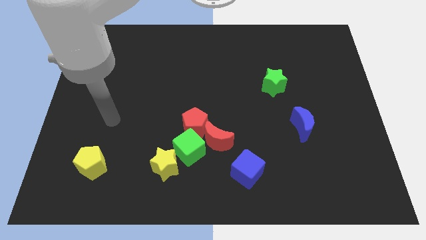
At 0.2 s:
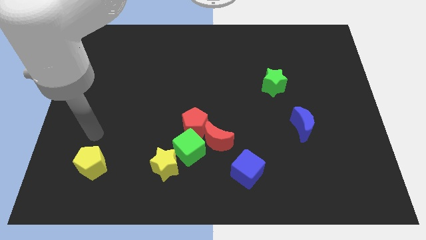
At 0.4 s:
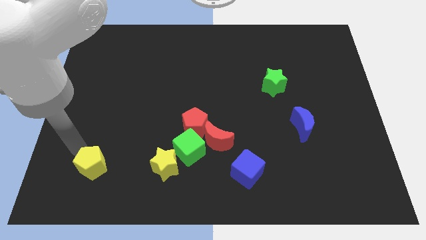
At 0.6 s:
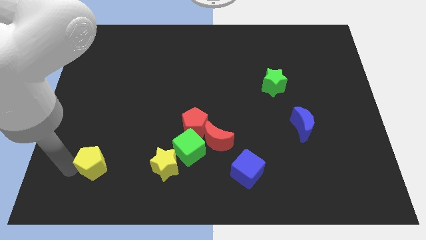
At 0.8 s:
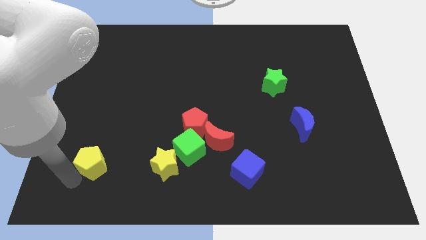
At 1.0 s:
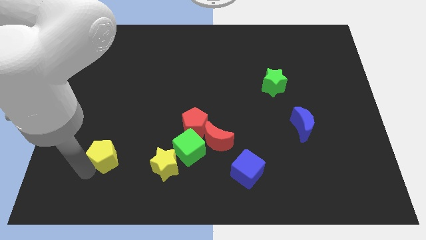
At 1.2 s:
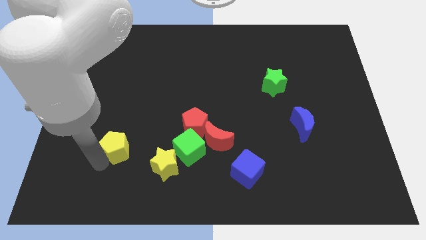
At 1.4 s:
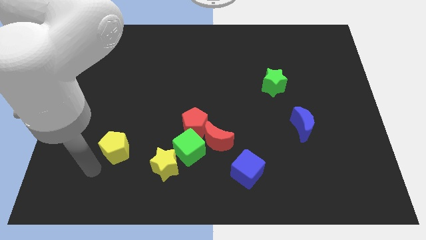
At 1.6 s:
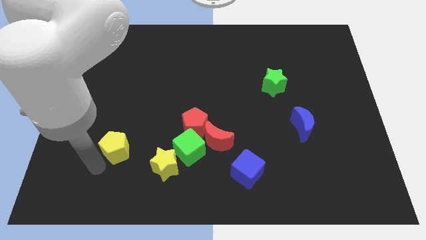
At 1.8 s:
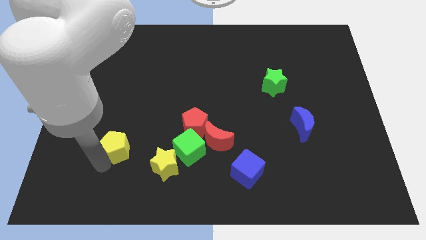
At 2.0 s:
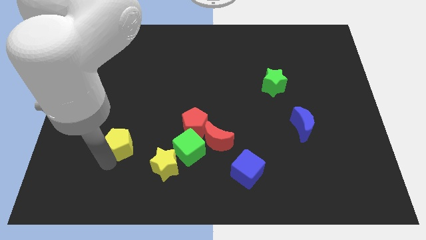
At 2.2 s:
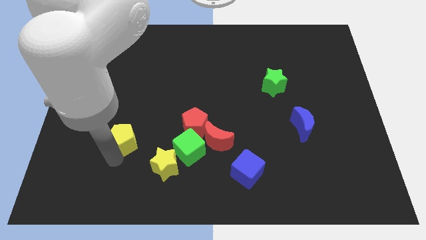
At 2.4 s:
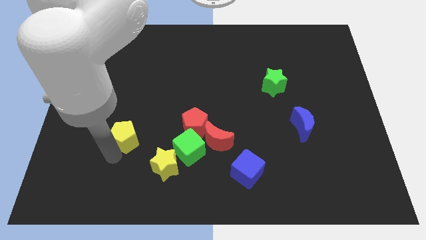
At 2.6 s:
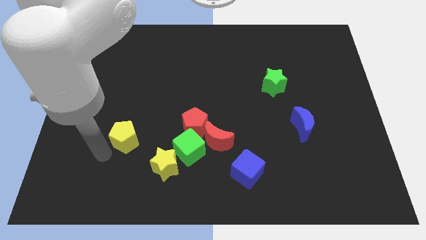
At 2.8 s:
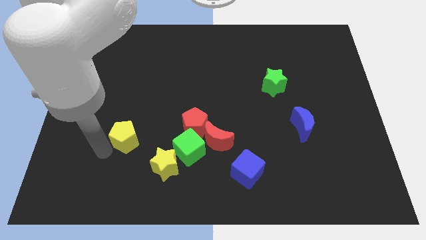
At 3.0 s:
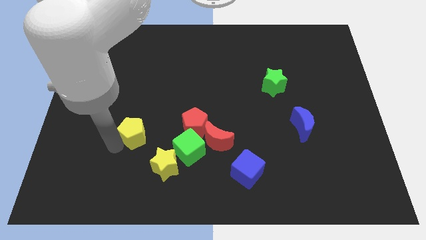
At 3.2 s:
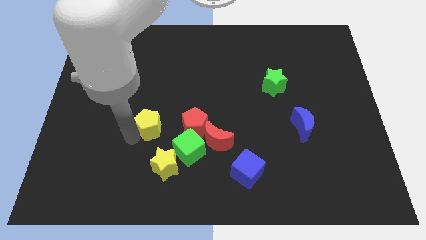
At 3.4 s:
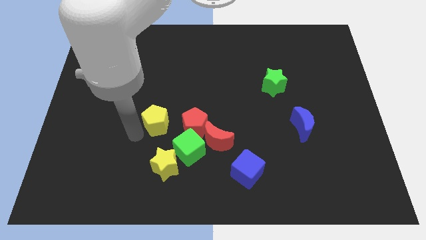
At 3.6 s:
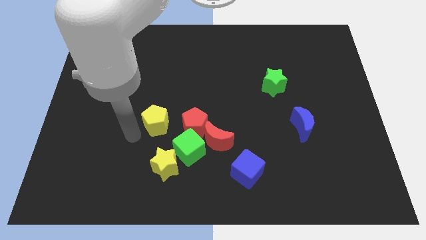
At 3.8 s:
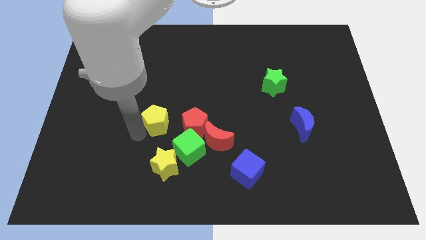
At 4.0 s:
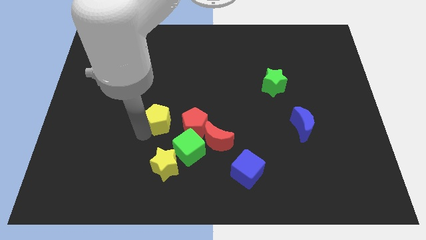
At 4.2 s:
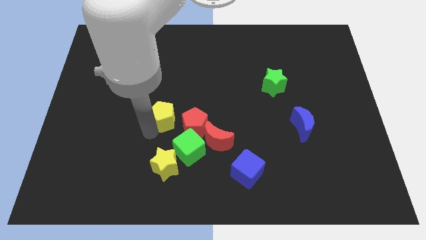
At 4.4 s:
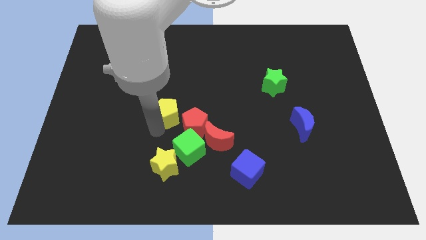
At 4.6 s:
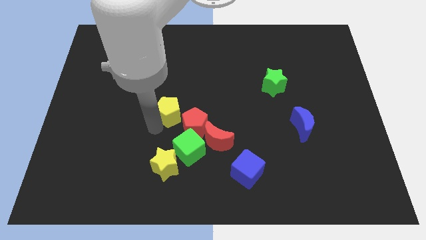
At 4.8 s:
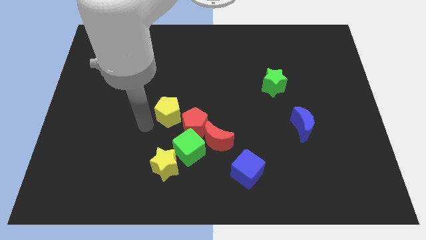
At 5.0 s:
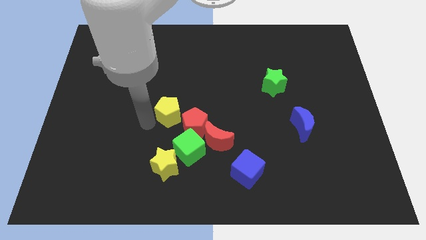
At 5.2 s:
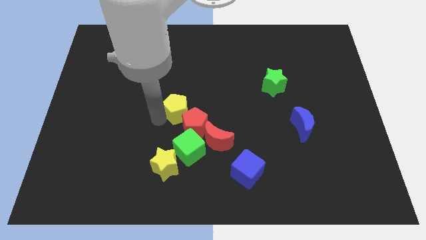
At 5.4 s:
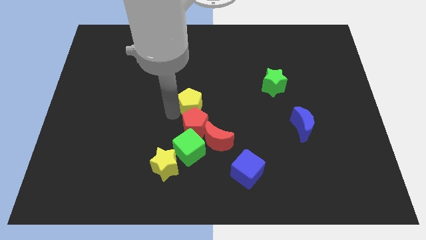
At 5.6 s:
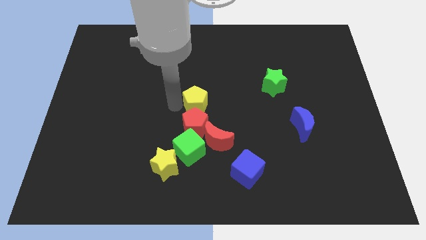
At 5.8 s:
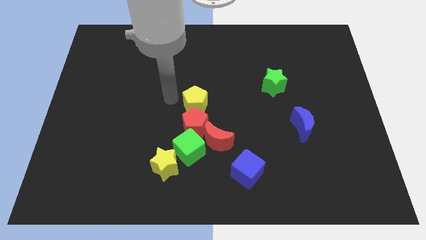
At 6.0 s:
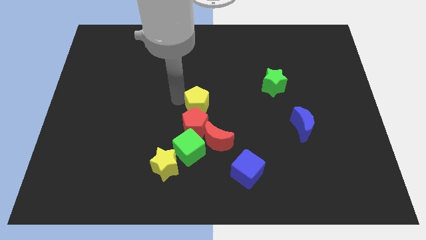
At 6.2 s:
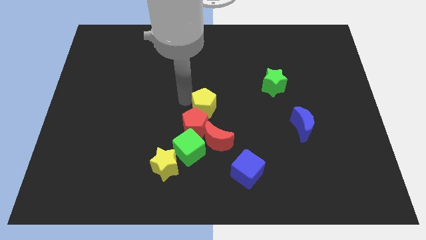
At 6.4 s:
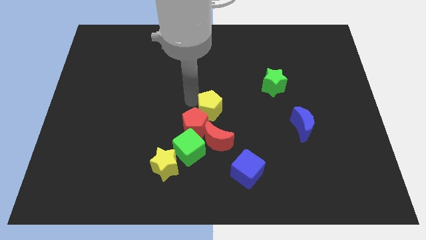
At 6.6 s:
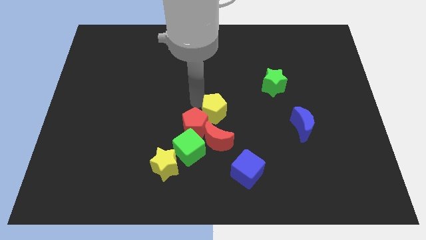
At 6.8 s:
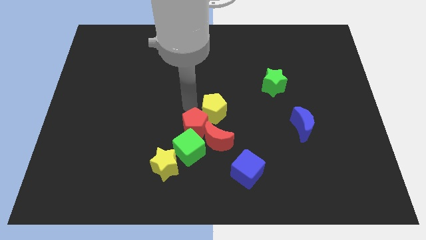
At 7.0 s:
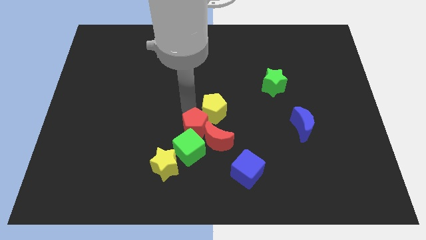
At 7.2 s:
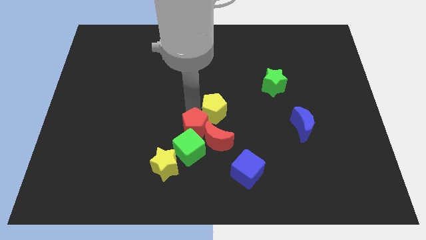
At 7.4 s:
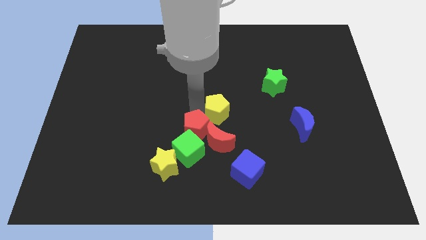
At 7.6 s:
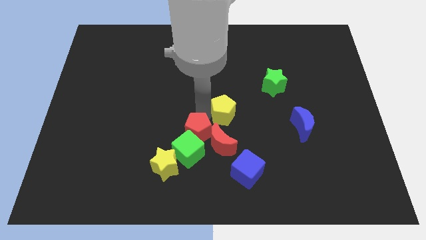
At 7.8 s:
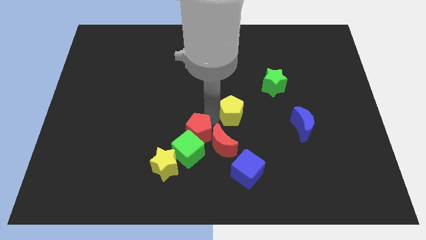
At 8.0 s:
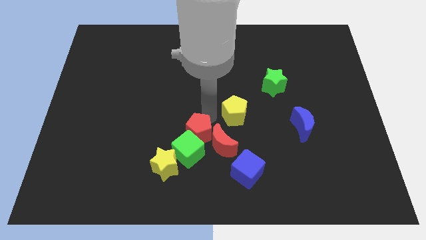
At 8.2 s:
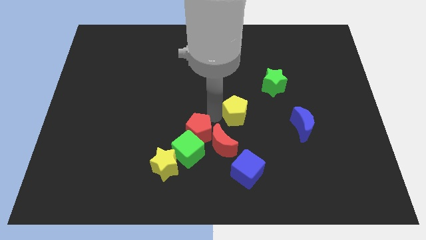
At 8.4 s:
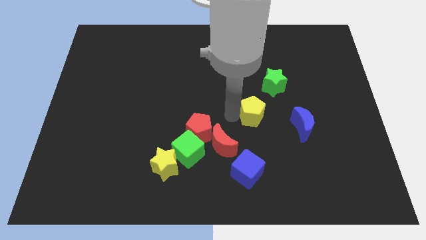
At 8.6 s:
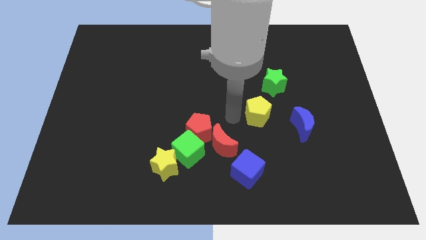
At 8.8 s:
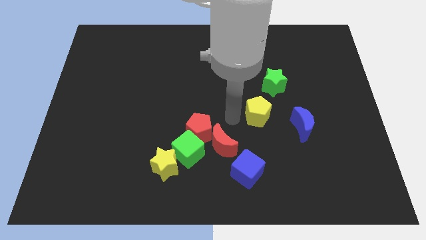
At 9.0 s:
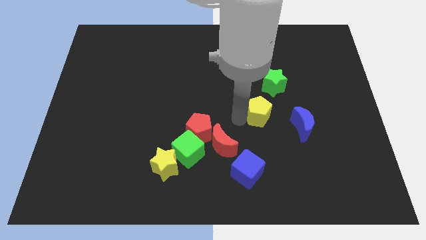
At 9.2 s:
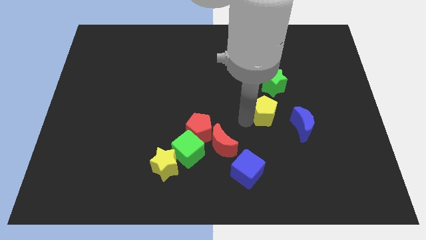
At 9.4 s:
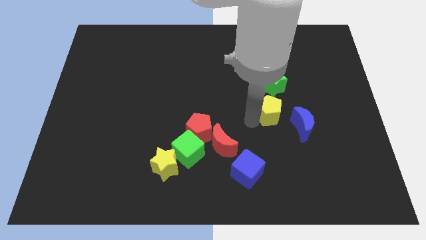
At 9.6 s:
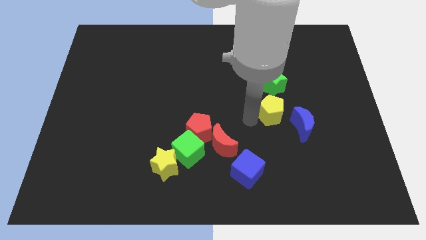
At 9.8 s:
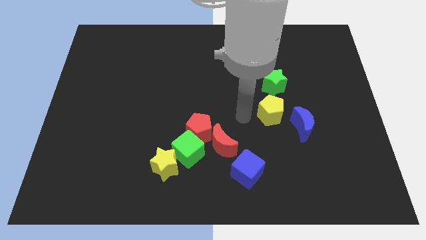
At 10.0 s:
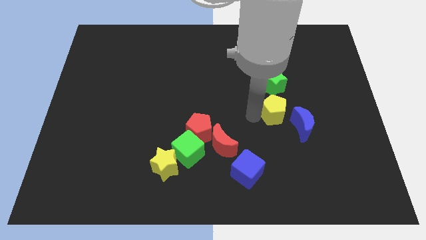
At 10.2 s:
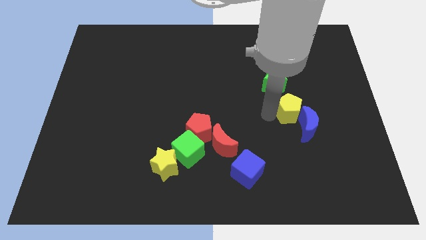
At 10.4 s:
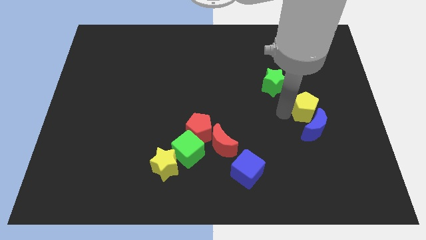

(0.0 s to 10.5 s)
put the yellow pentagon to the top right of the blue moon

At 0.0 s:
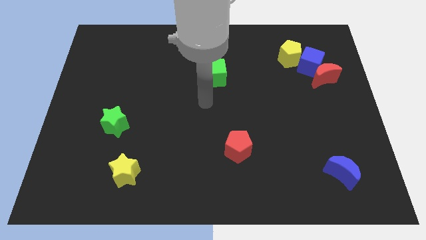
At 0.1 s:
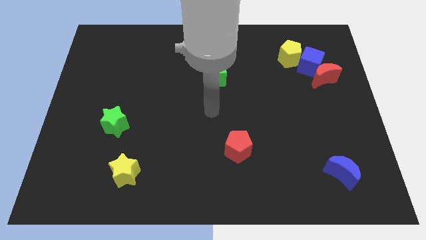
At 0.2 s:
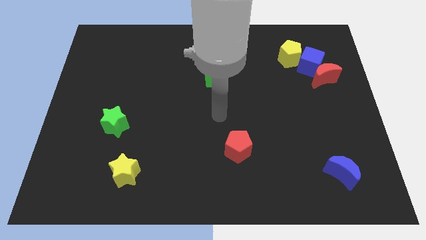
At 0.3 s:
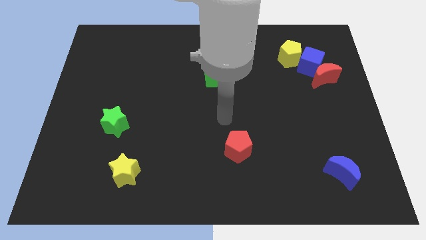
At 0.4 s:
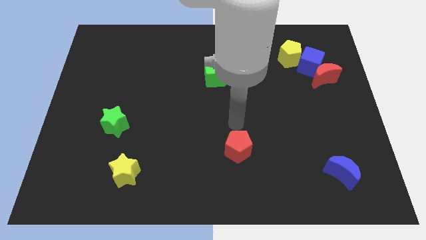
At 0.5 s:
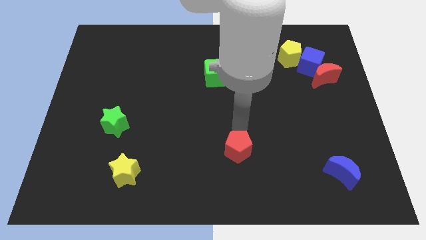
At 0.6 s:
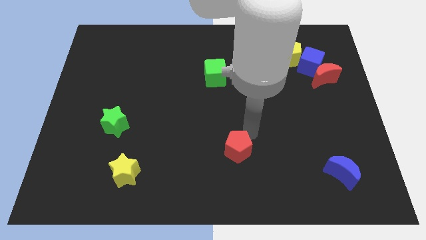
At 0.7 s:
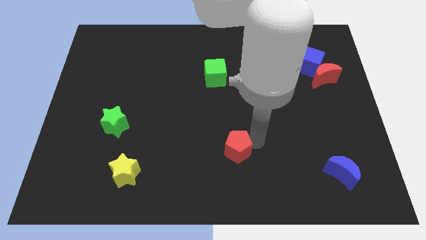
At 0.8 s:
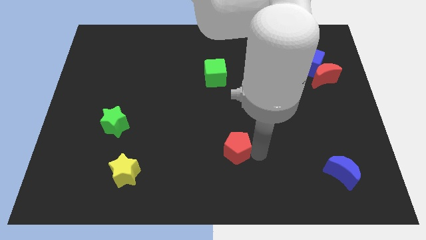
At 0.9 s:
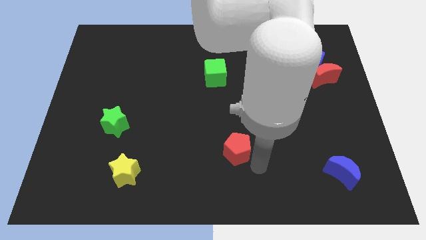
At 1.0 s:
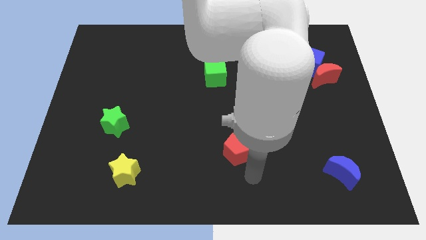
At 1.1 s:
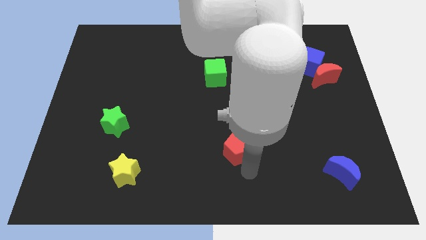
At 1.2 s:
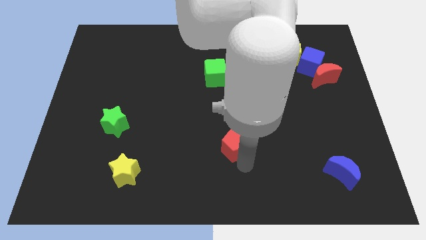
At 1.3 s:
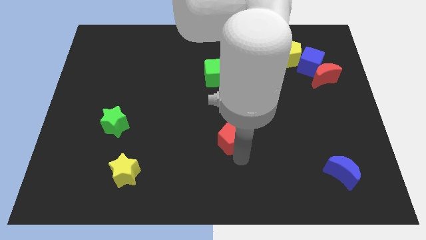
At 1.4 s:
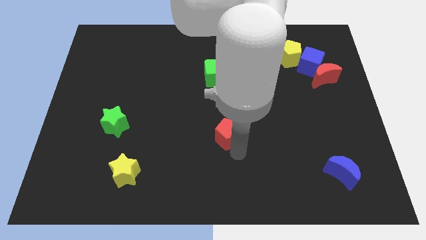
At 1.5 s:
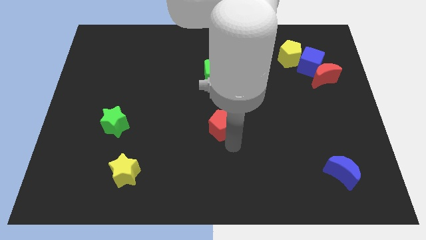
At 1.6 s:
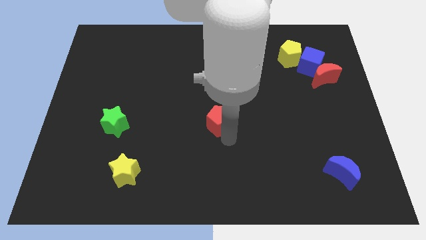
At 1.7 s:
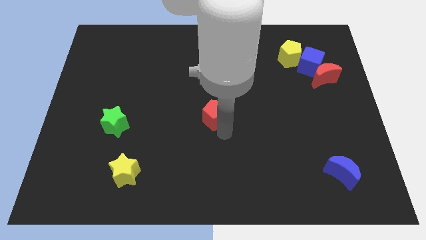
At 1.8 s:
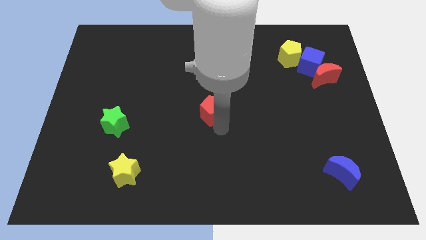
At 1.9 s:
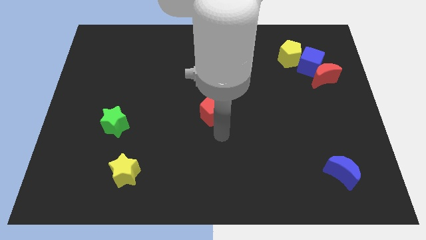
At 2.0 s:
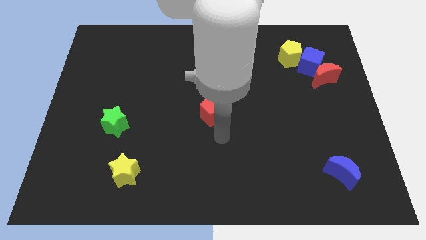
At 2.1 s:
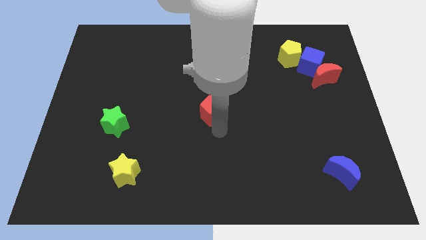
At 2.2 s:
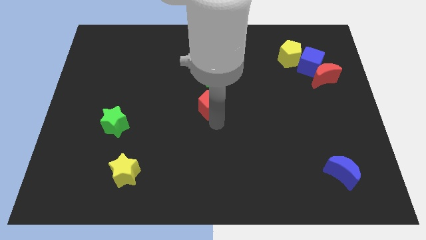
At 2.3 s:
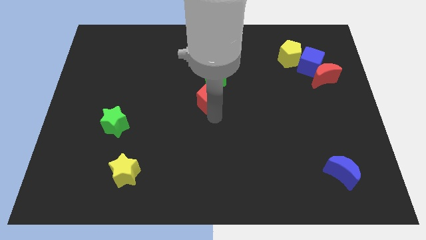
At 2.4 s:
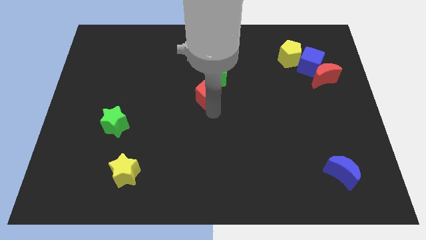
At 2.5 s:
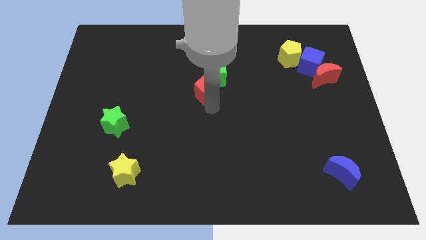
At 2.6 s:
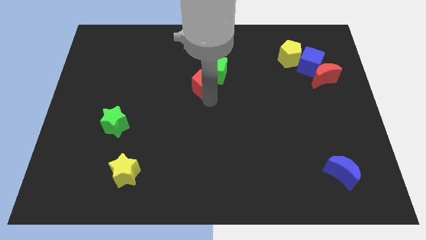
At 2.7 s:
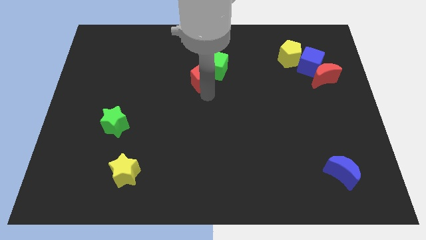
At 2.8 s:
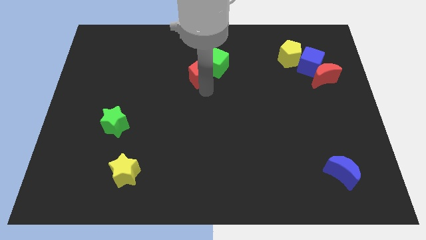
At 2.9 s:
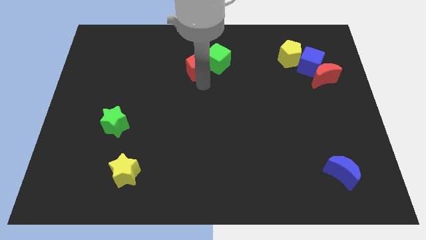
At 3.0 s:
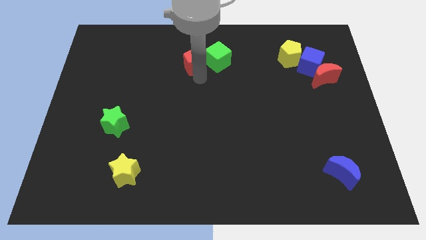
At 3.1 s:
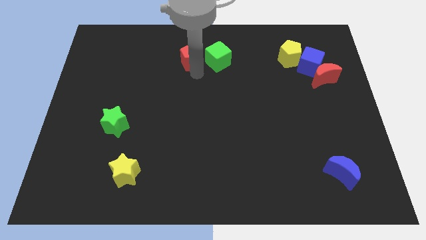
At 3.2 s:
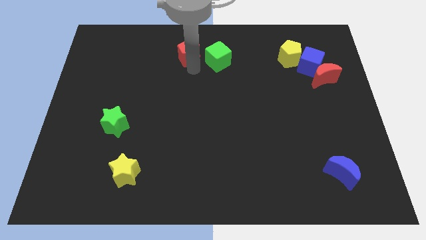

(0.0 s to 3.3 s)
move the red pentagon to the top left side of the green cube
